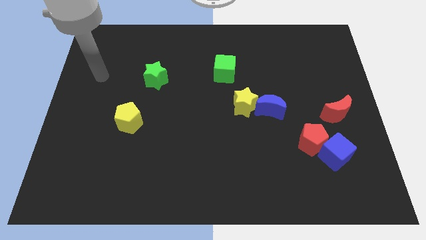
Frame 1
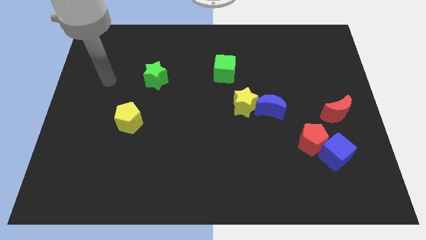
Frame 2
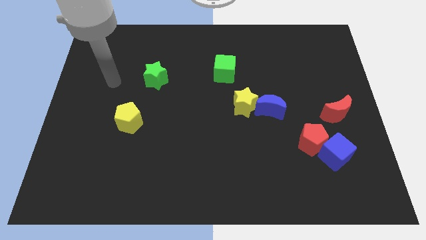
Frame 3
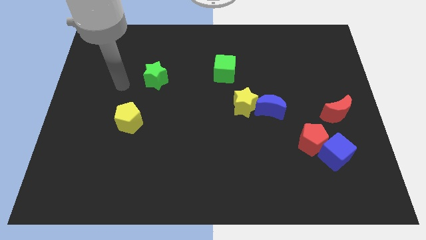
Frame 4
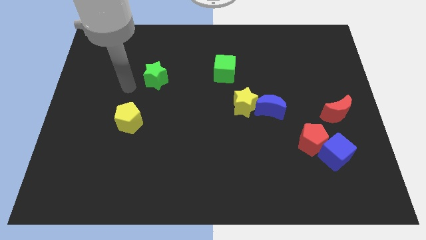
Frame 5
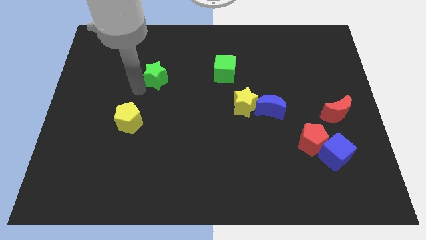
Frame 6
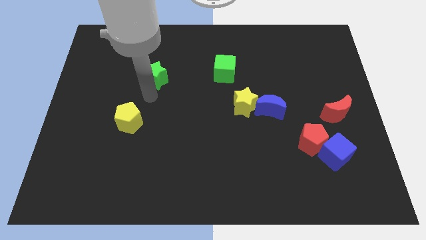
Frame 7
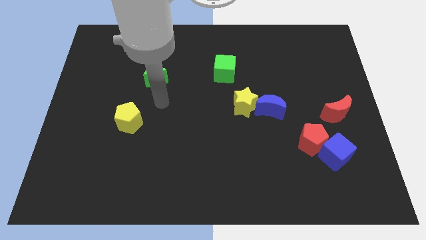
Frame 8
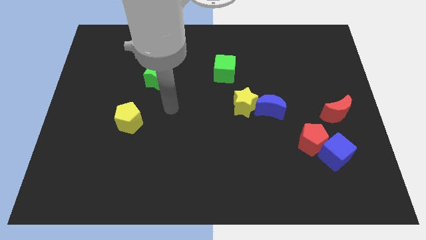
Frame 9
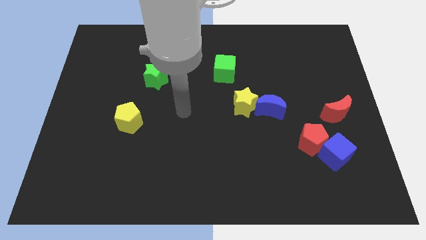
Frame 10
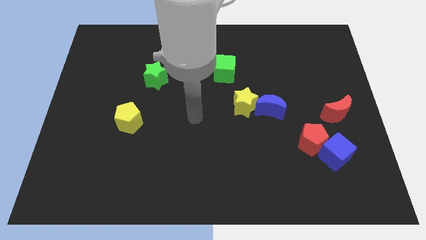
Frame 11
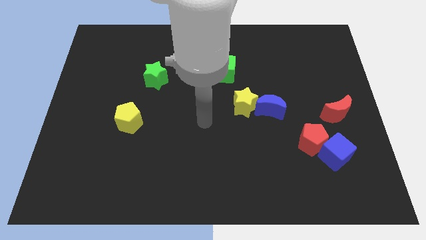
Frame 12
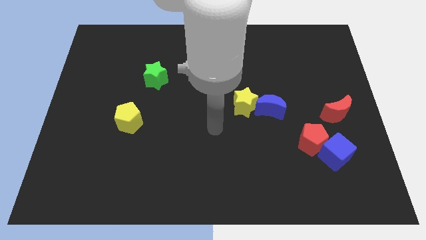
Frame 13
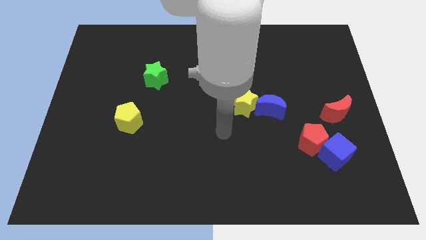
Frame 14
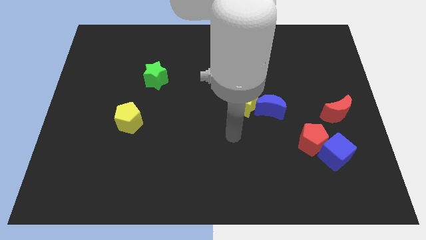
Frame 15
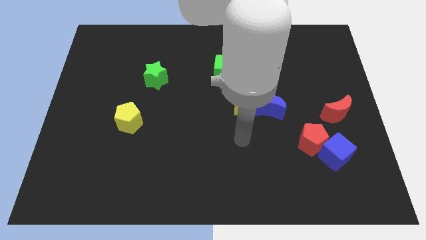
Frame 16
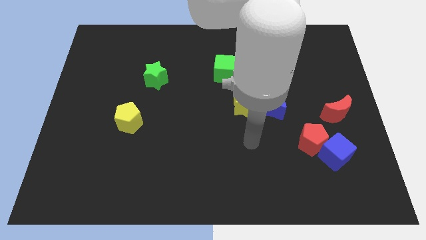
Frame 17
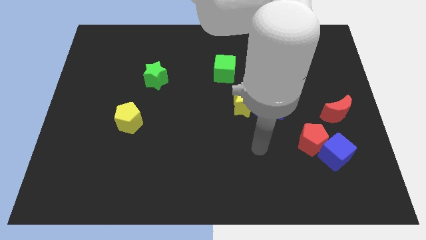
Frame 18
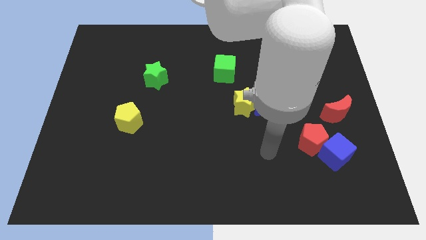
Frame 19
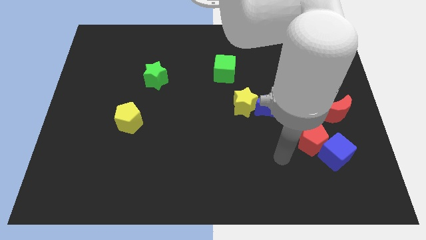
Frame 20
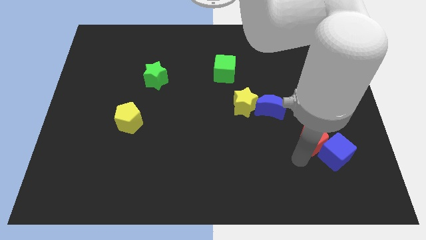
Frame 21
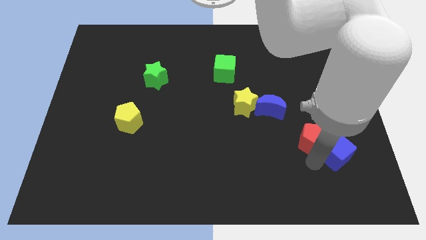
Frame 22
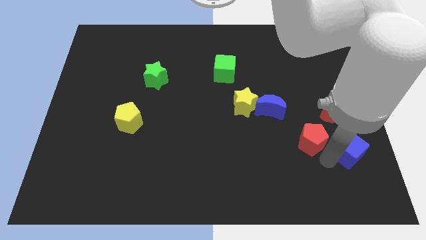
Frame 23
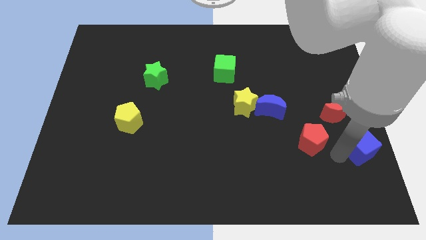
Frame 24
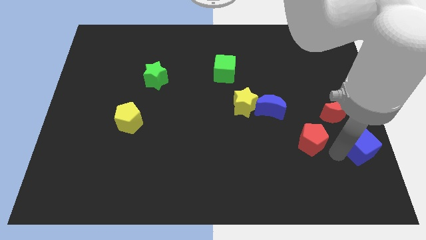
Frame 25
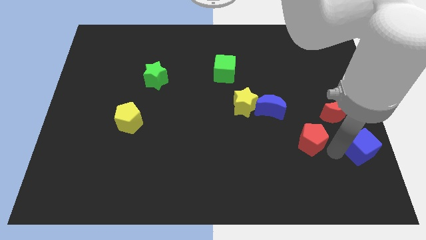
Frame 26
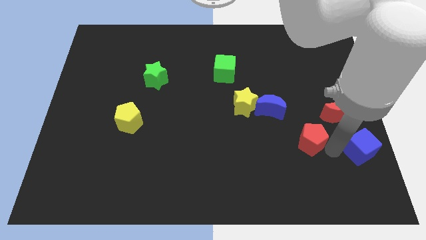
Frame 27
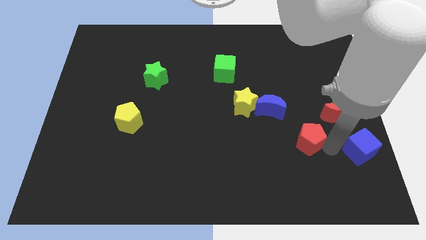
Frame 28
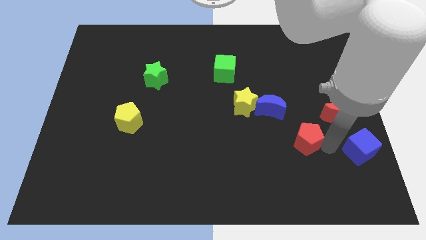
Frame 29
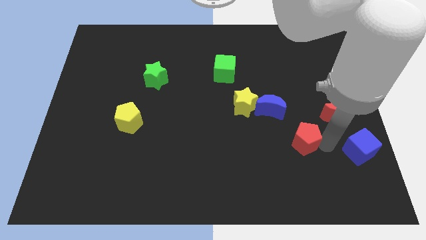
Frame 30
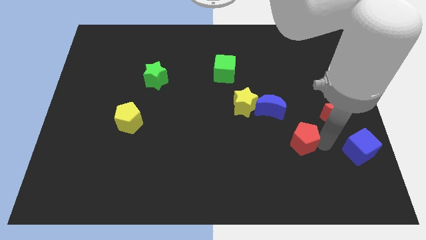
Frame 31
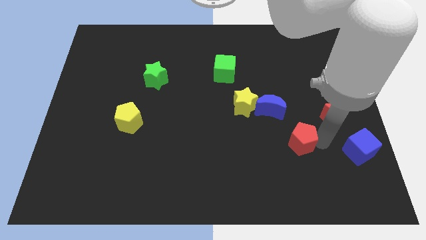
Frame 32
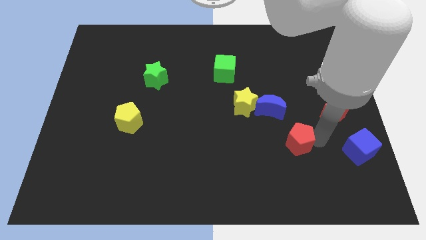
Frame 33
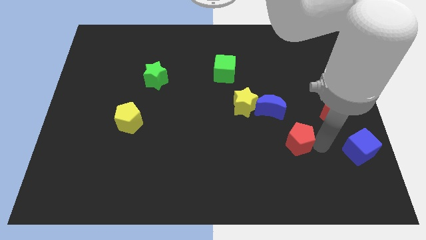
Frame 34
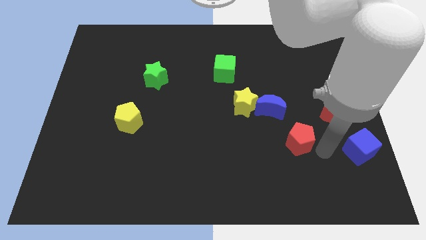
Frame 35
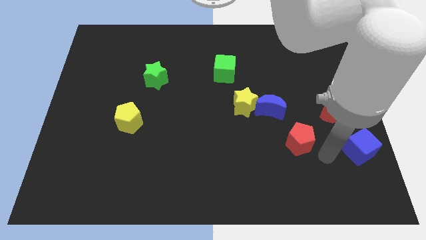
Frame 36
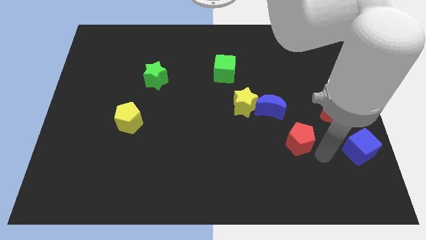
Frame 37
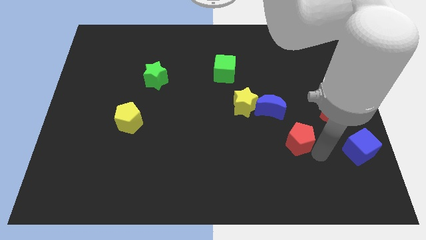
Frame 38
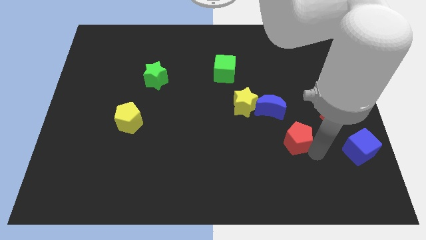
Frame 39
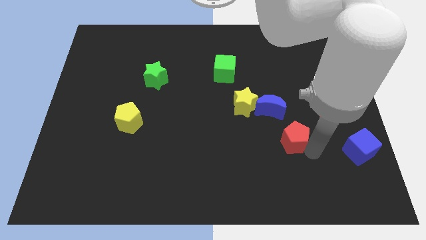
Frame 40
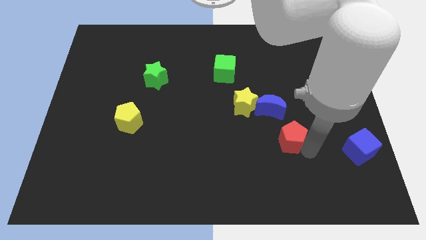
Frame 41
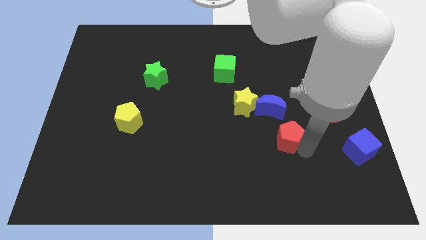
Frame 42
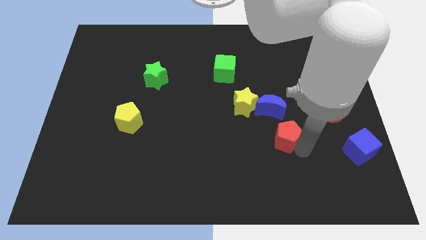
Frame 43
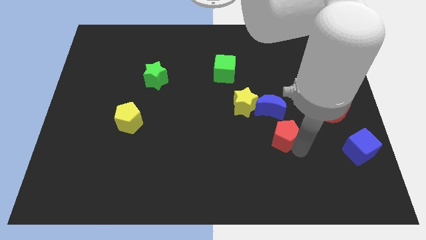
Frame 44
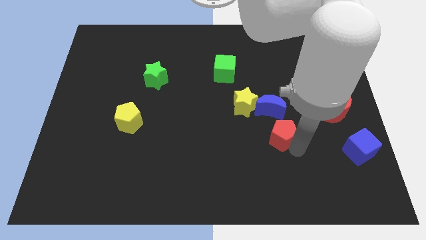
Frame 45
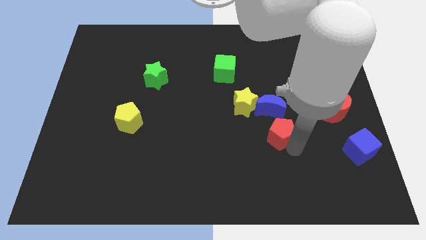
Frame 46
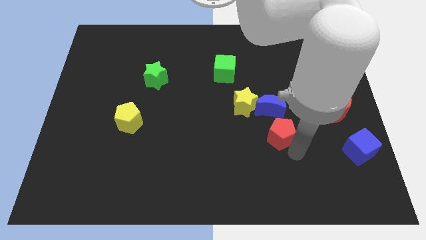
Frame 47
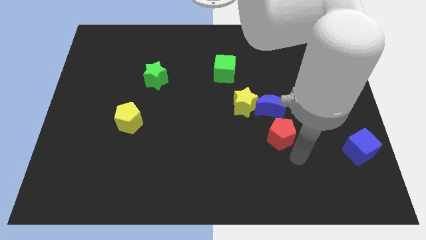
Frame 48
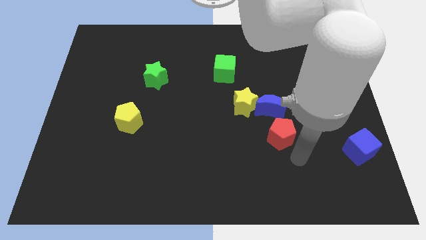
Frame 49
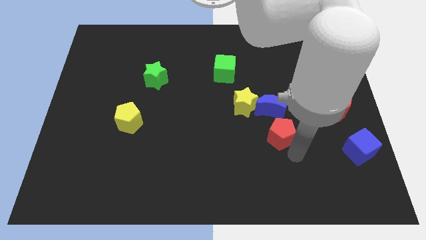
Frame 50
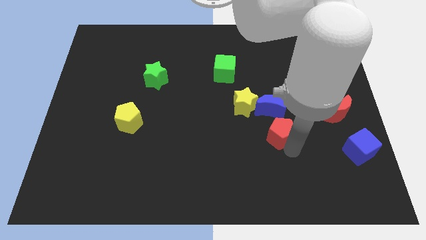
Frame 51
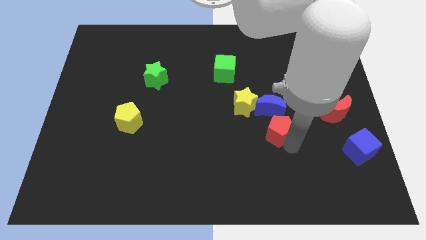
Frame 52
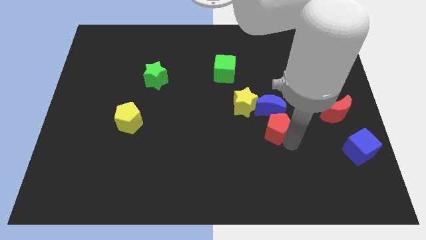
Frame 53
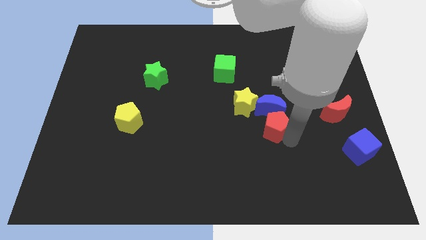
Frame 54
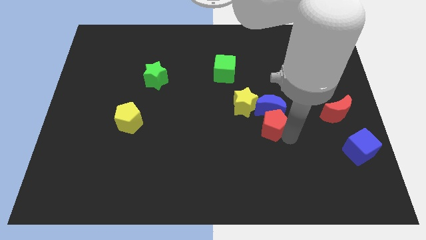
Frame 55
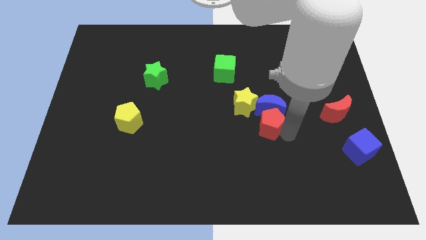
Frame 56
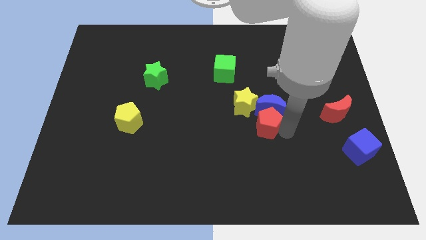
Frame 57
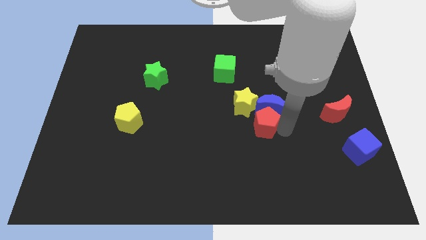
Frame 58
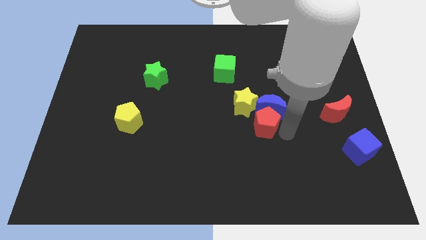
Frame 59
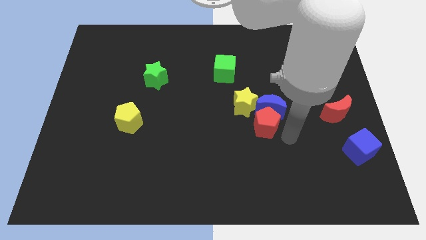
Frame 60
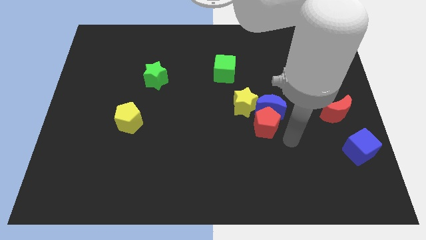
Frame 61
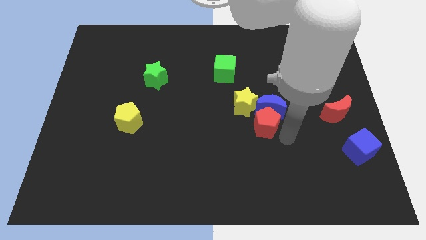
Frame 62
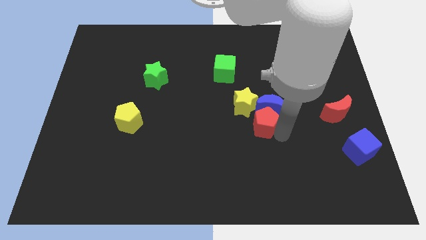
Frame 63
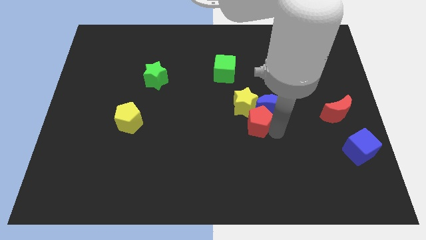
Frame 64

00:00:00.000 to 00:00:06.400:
slide the red pentagon to the yellow star
